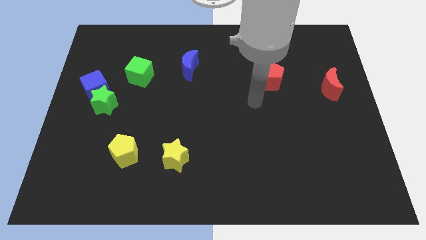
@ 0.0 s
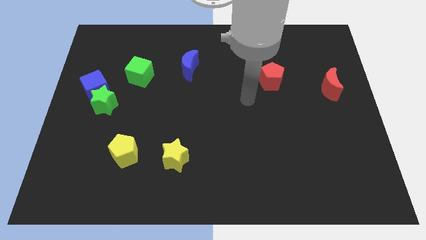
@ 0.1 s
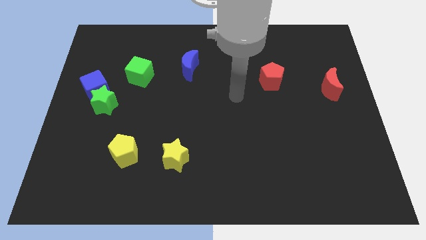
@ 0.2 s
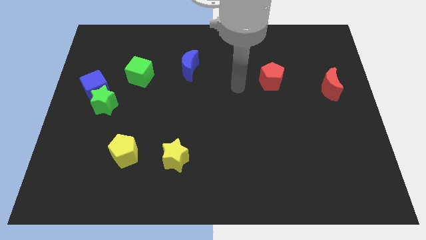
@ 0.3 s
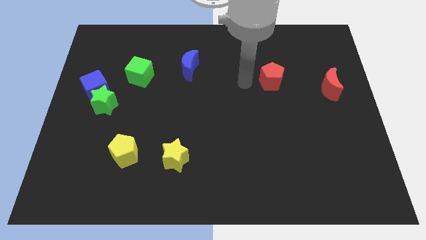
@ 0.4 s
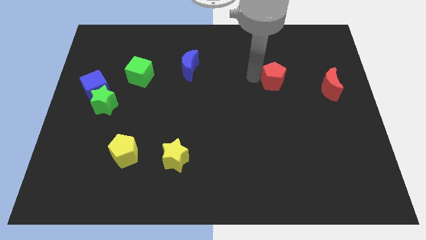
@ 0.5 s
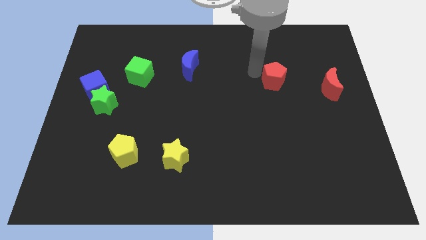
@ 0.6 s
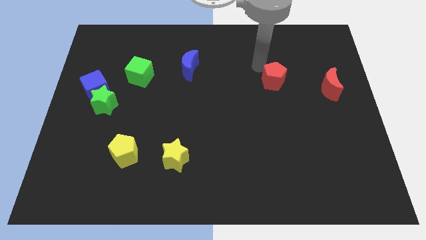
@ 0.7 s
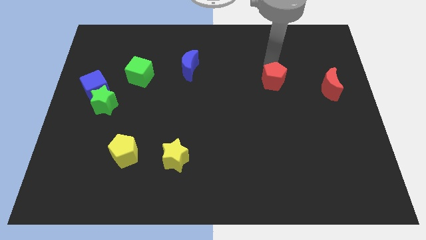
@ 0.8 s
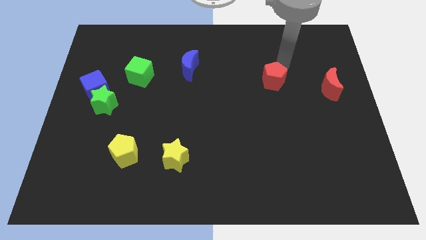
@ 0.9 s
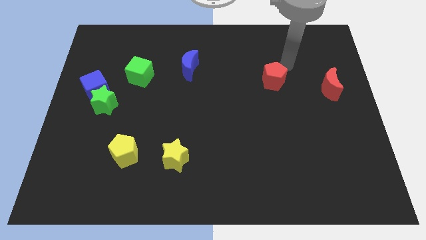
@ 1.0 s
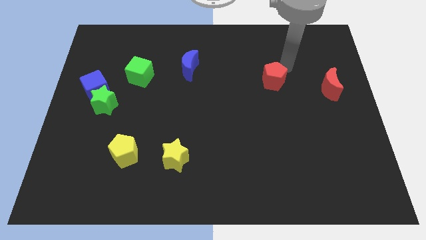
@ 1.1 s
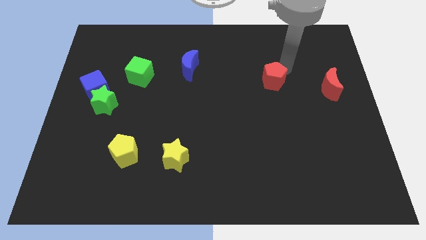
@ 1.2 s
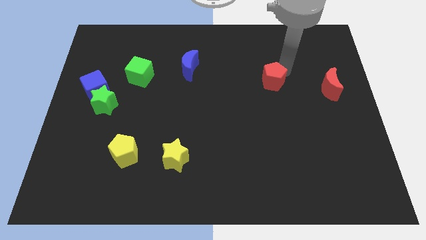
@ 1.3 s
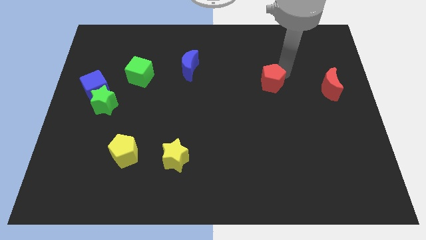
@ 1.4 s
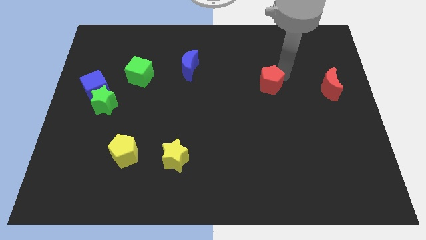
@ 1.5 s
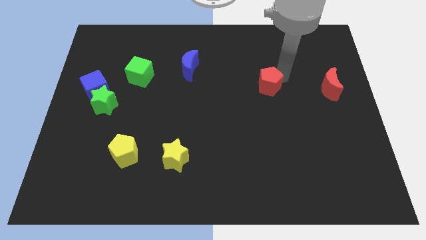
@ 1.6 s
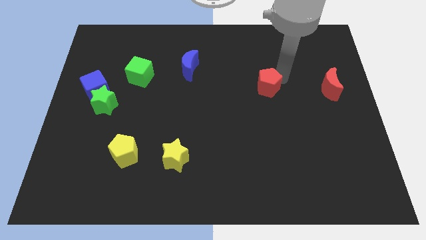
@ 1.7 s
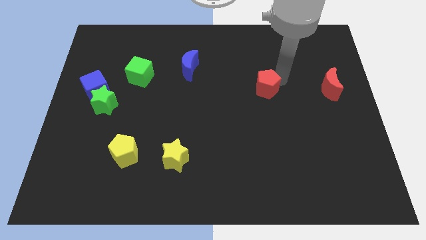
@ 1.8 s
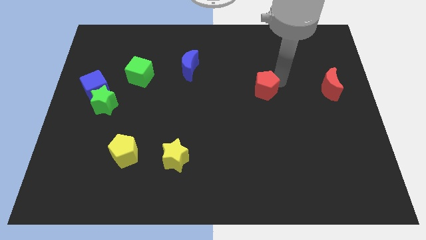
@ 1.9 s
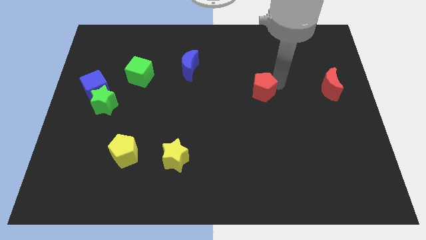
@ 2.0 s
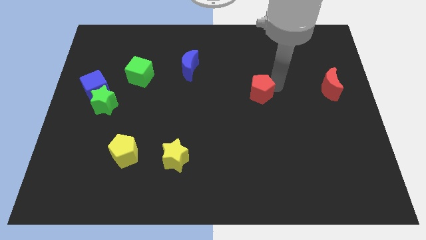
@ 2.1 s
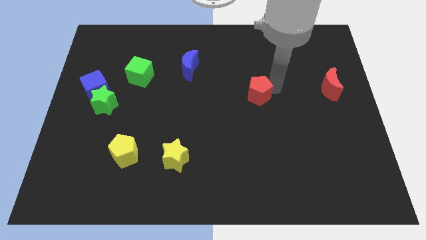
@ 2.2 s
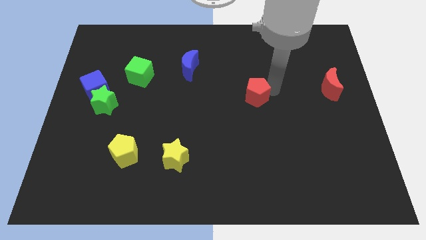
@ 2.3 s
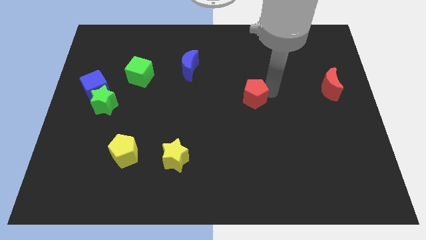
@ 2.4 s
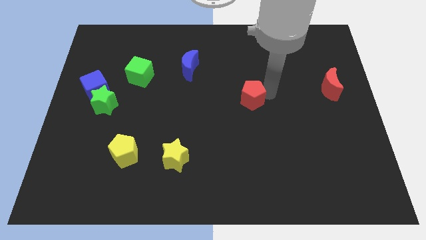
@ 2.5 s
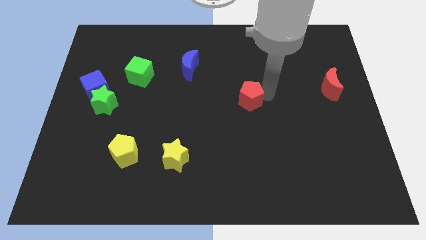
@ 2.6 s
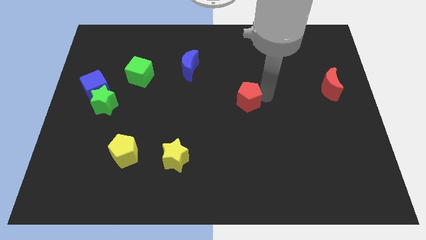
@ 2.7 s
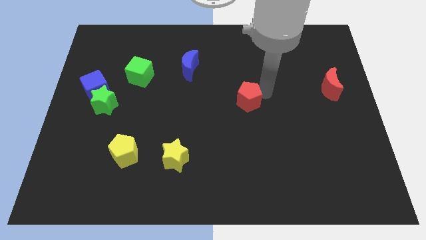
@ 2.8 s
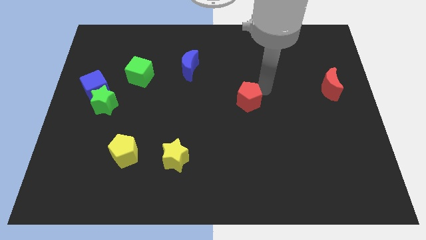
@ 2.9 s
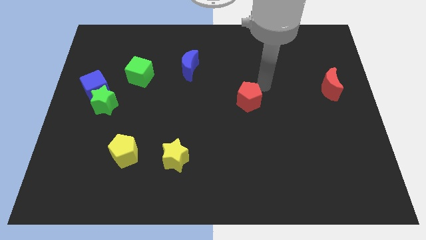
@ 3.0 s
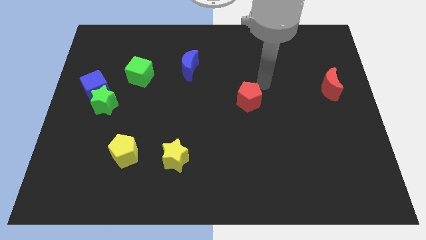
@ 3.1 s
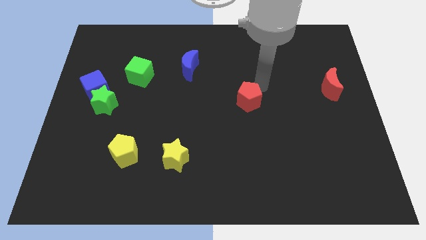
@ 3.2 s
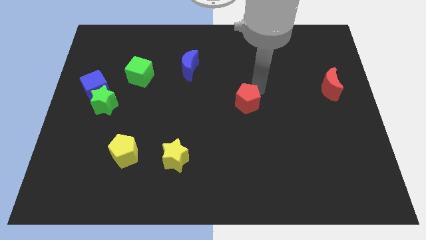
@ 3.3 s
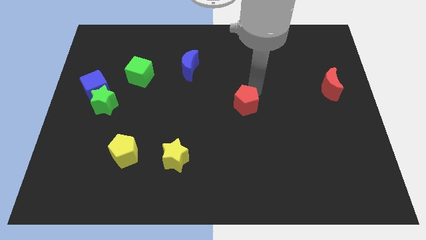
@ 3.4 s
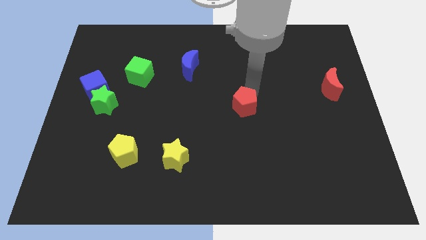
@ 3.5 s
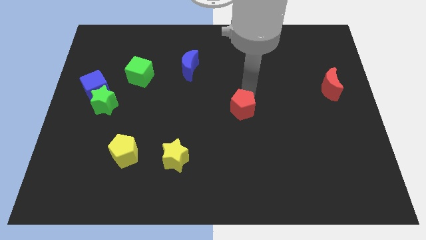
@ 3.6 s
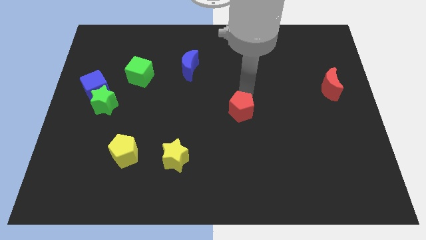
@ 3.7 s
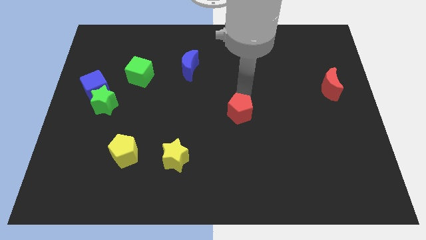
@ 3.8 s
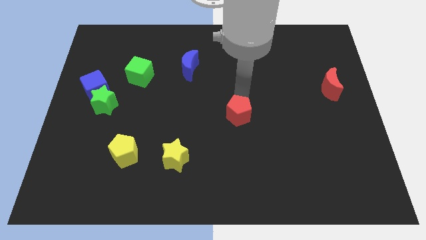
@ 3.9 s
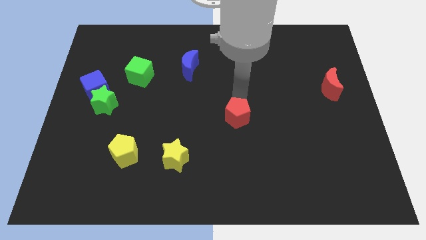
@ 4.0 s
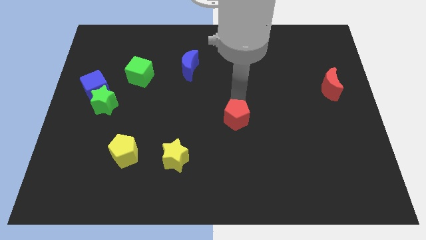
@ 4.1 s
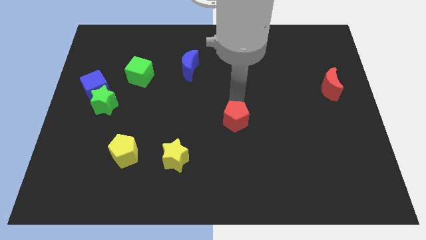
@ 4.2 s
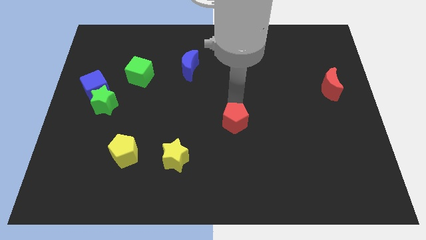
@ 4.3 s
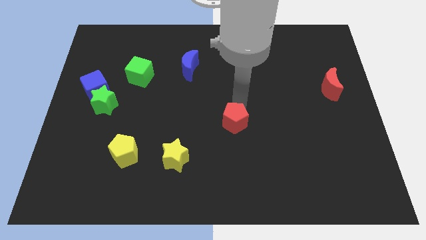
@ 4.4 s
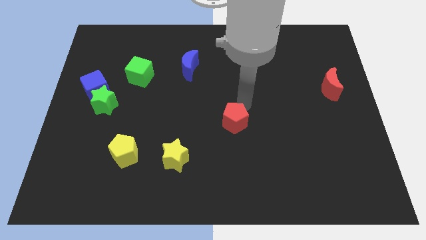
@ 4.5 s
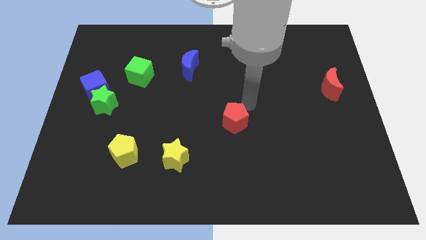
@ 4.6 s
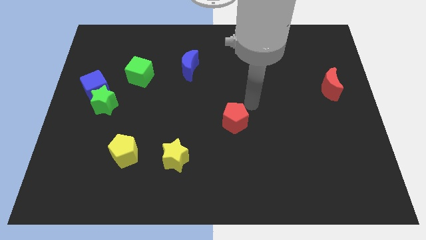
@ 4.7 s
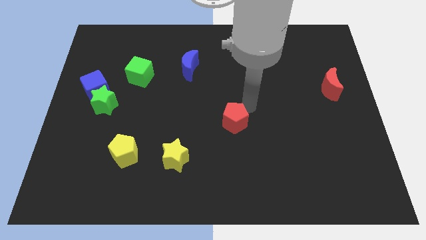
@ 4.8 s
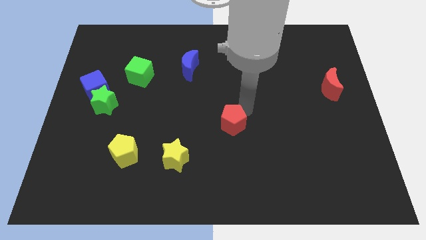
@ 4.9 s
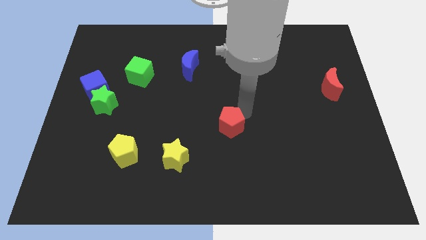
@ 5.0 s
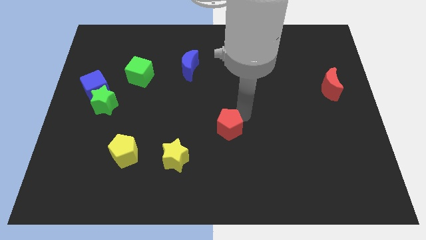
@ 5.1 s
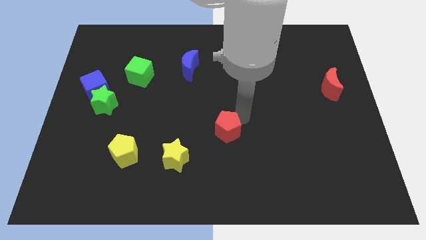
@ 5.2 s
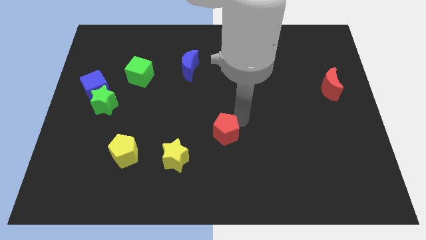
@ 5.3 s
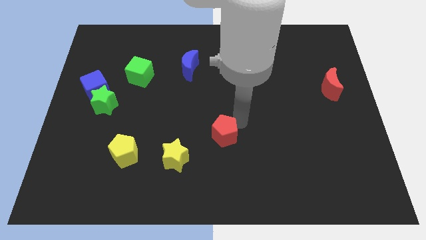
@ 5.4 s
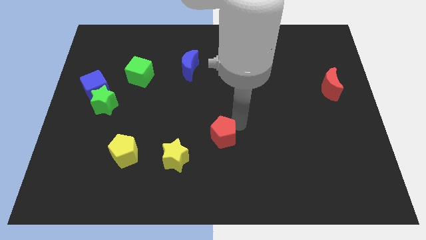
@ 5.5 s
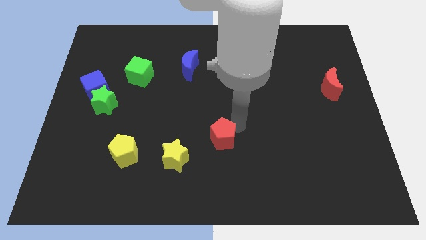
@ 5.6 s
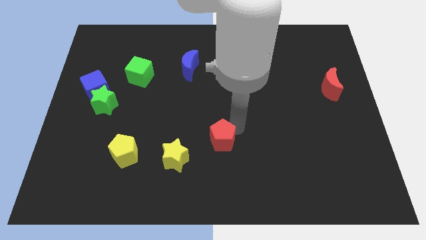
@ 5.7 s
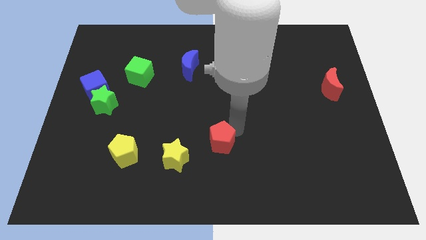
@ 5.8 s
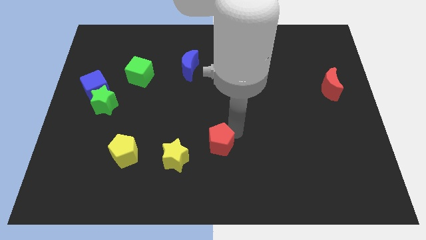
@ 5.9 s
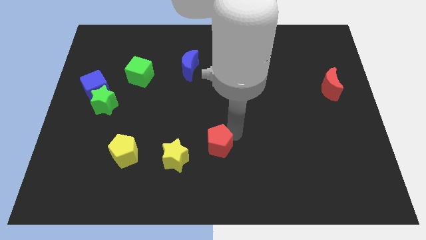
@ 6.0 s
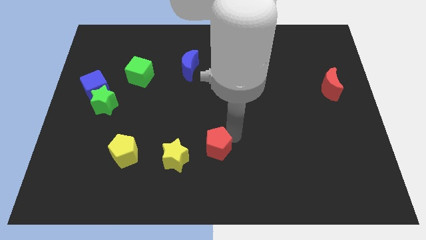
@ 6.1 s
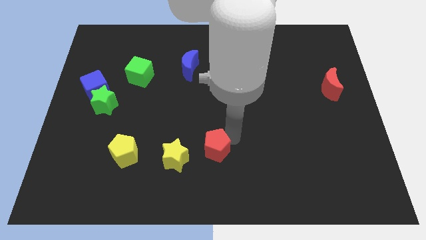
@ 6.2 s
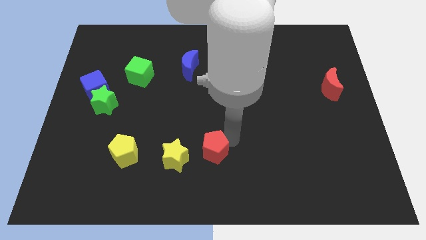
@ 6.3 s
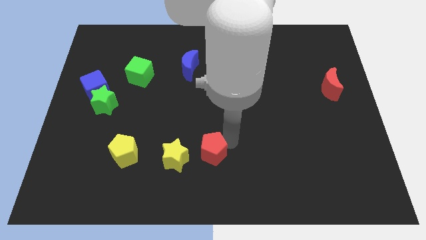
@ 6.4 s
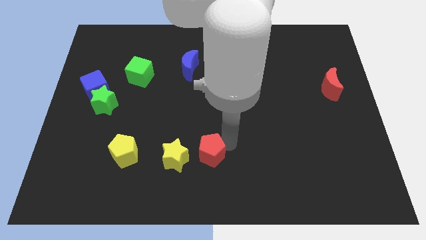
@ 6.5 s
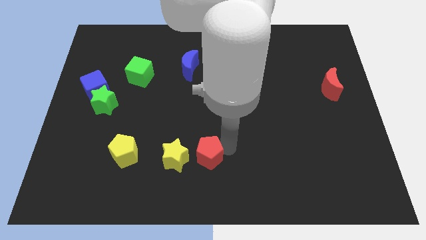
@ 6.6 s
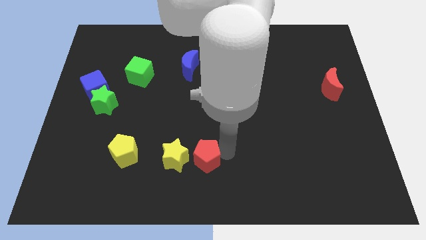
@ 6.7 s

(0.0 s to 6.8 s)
push the red pentagon next to the yellow star
